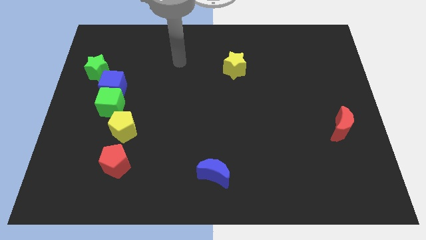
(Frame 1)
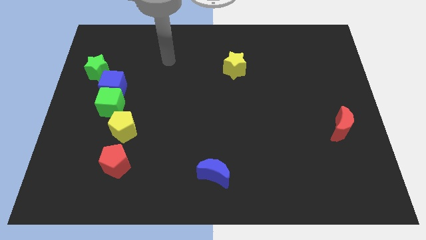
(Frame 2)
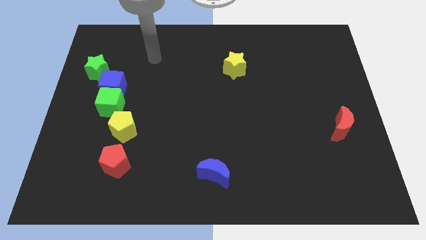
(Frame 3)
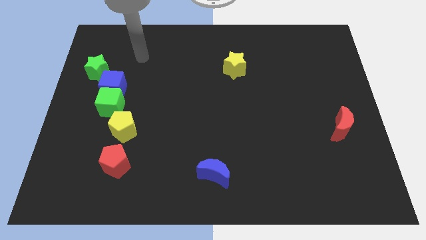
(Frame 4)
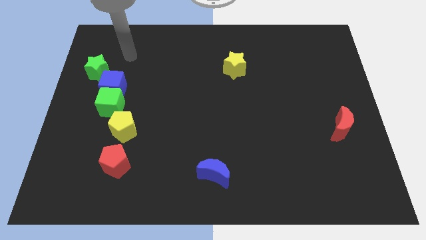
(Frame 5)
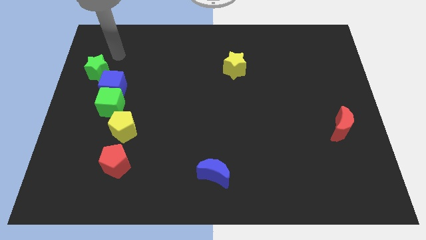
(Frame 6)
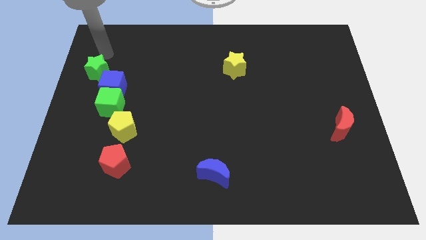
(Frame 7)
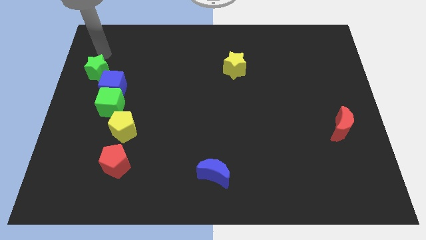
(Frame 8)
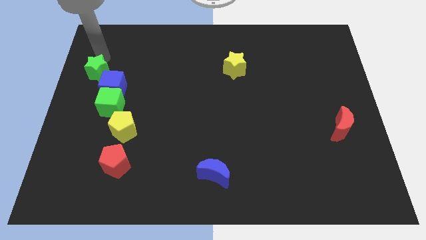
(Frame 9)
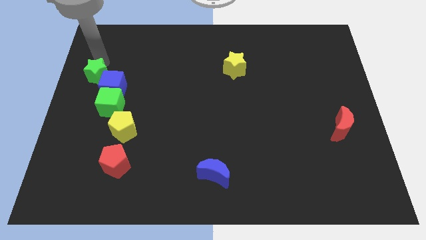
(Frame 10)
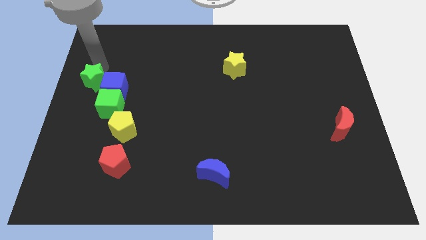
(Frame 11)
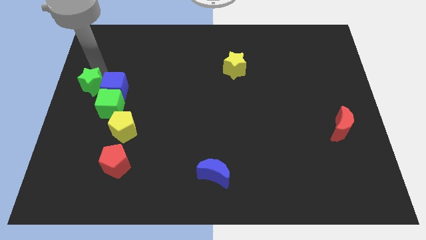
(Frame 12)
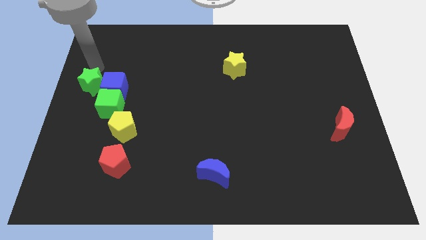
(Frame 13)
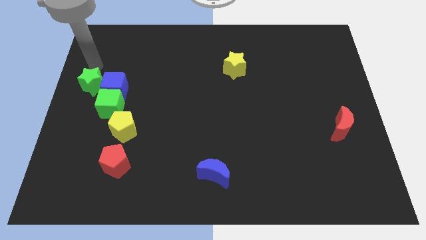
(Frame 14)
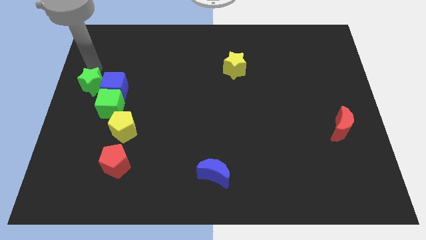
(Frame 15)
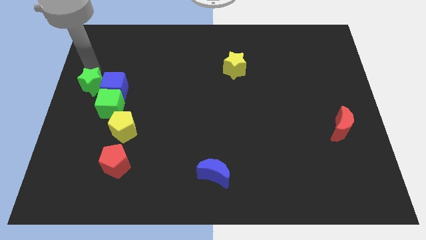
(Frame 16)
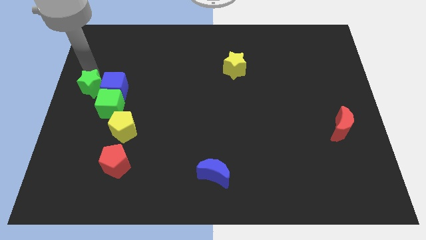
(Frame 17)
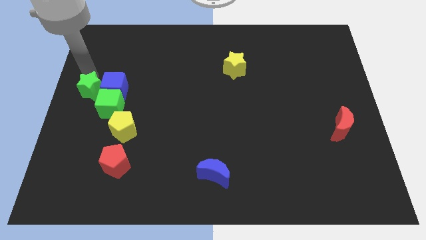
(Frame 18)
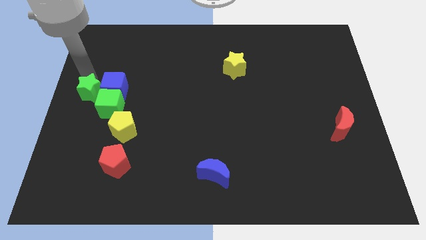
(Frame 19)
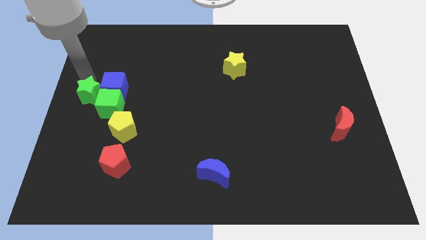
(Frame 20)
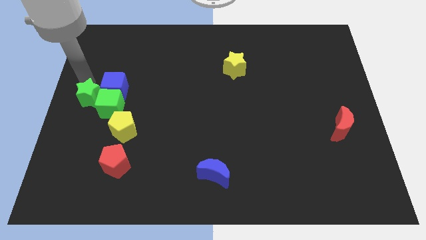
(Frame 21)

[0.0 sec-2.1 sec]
slide the green star close to the green cube

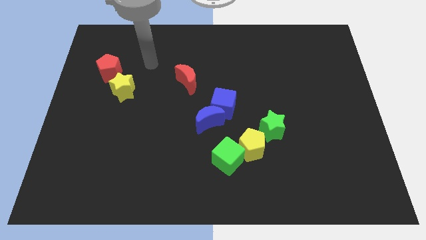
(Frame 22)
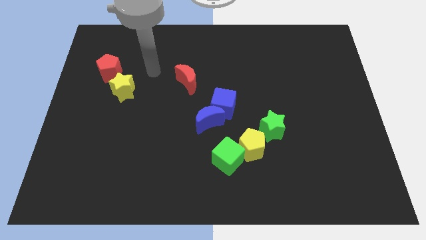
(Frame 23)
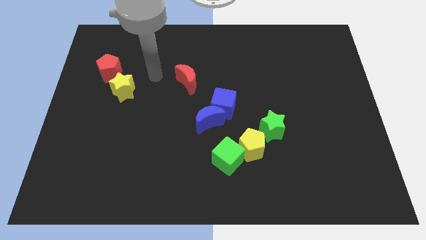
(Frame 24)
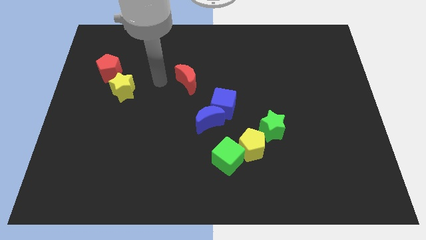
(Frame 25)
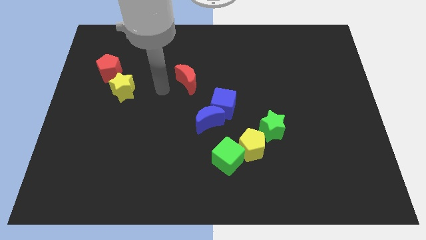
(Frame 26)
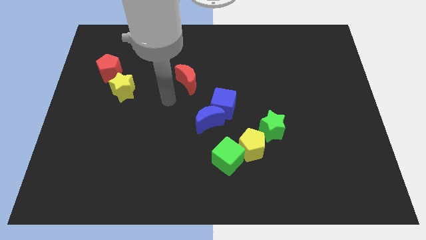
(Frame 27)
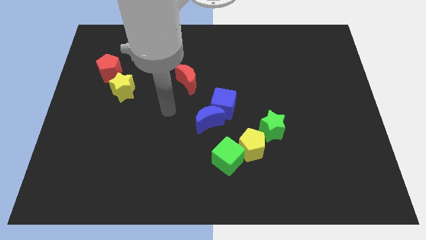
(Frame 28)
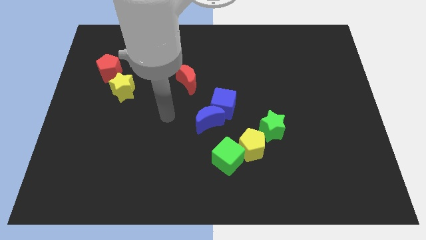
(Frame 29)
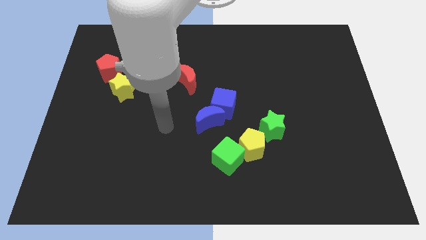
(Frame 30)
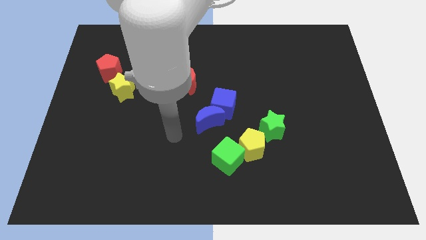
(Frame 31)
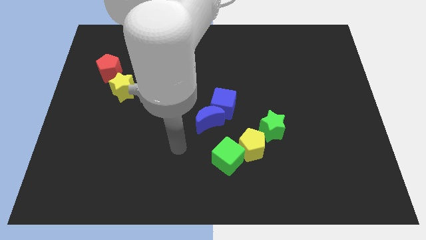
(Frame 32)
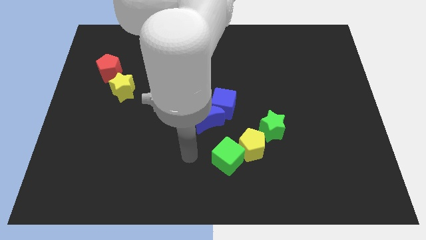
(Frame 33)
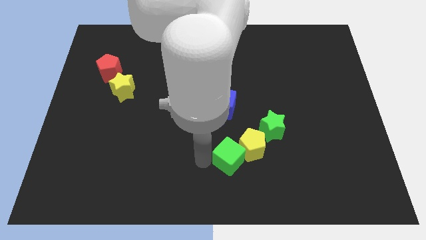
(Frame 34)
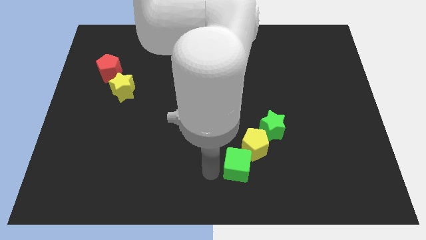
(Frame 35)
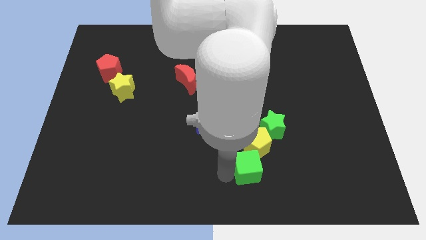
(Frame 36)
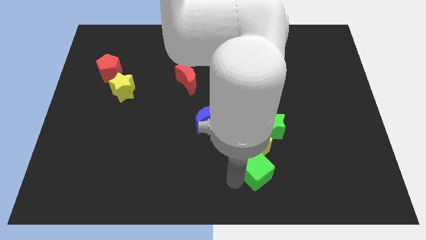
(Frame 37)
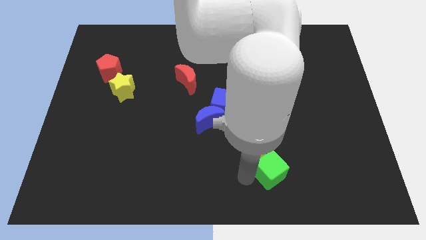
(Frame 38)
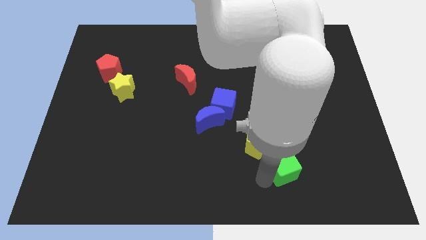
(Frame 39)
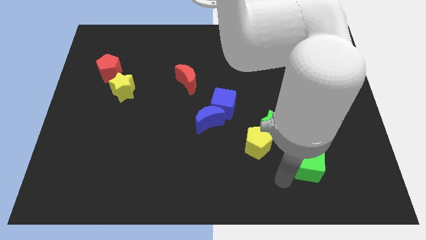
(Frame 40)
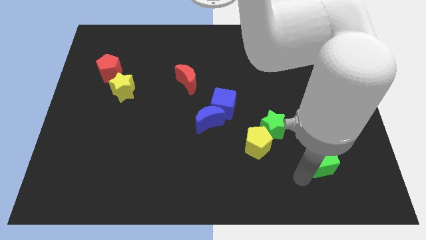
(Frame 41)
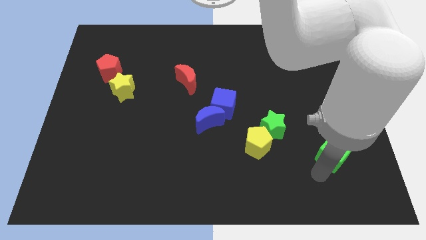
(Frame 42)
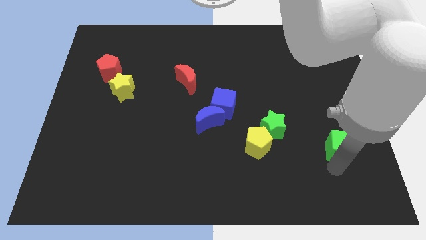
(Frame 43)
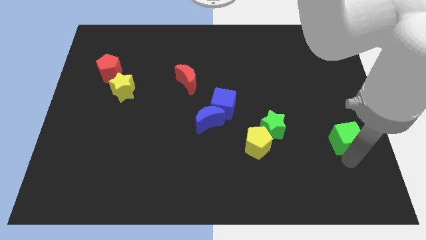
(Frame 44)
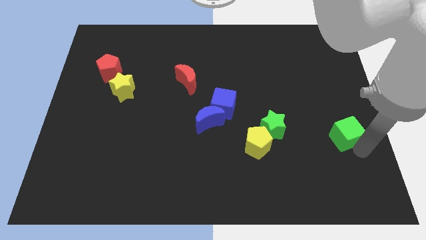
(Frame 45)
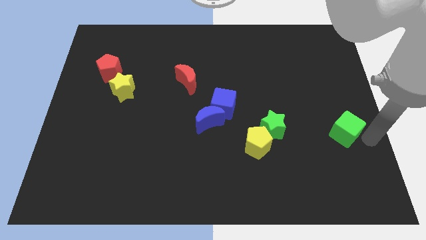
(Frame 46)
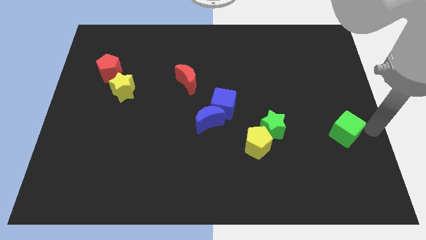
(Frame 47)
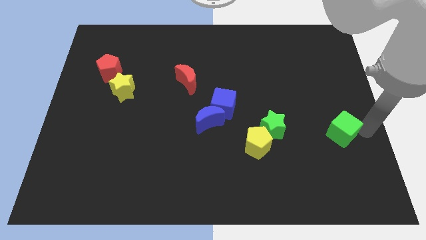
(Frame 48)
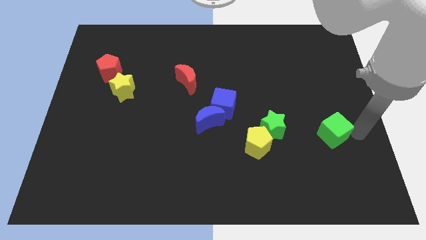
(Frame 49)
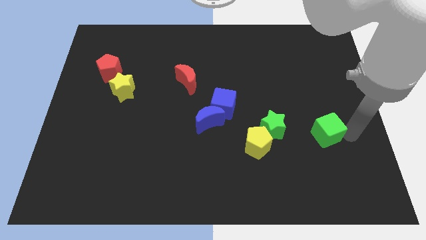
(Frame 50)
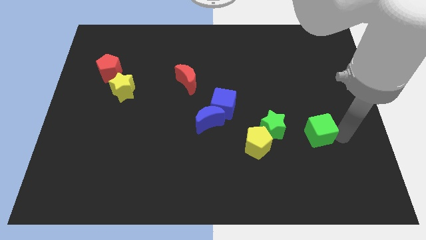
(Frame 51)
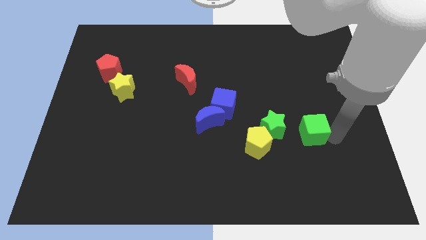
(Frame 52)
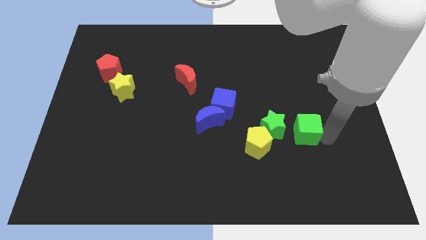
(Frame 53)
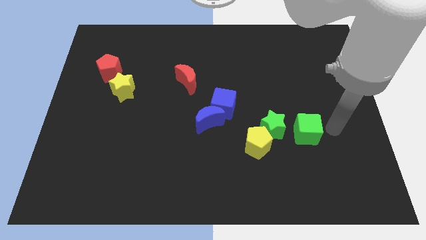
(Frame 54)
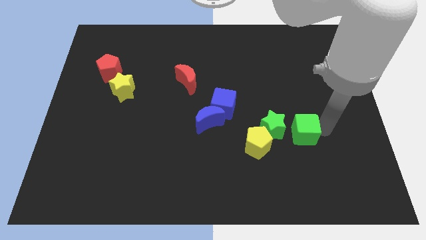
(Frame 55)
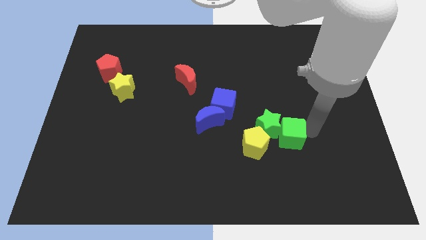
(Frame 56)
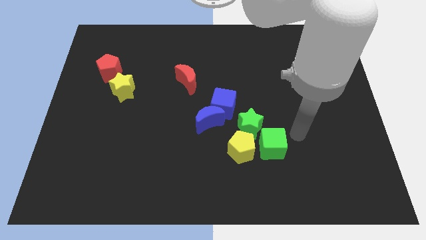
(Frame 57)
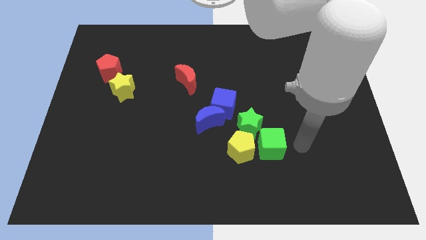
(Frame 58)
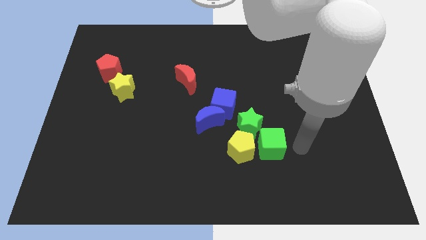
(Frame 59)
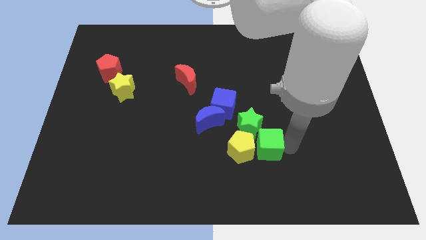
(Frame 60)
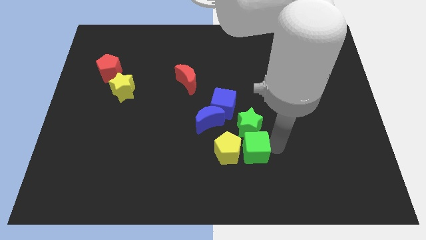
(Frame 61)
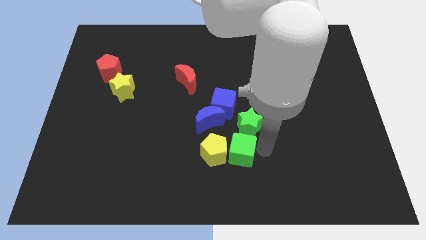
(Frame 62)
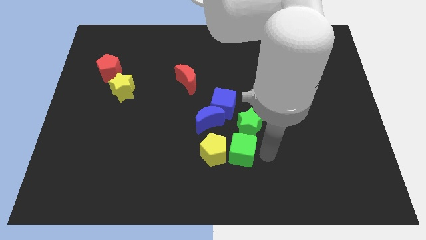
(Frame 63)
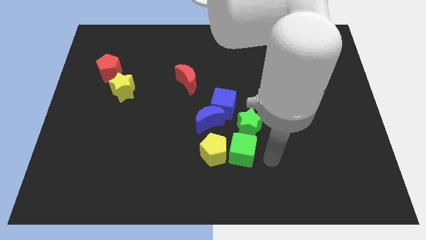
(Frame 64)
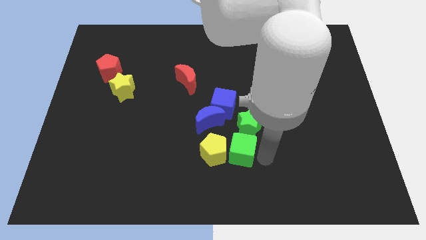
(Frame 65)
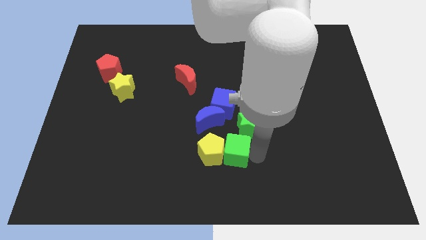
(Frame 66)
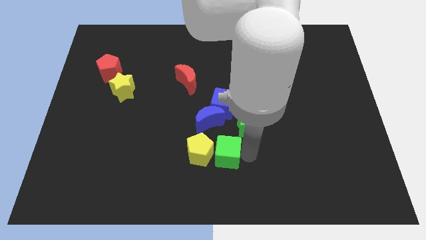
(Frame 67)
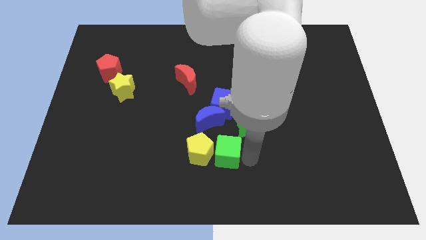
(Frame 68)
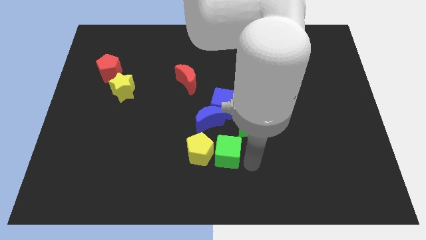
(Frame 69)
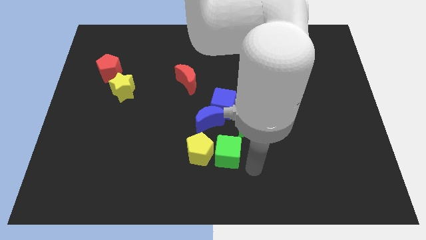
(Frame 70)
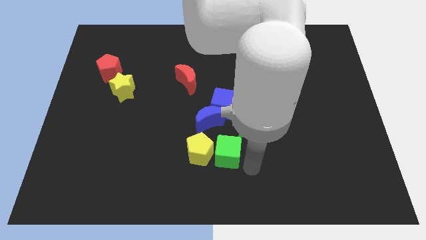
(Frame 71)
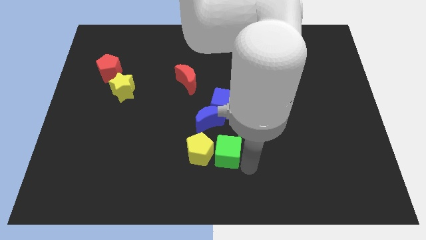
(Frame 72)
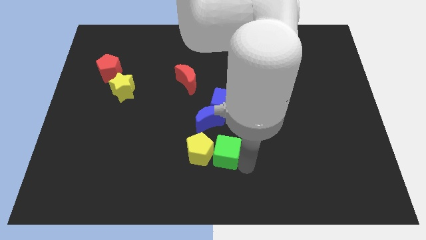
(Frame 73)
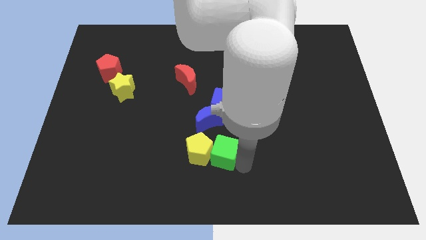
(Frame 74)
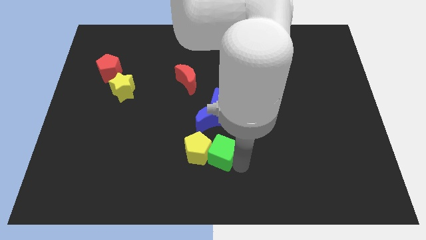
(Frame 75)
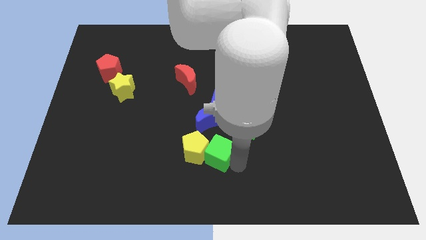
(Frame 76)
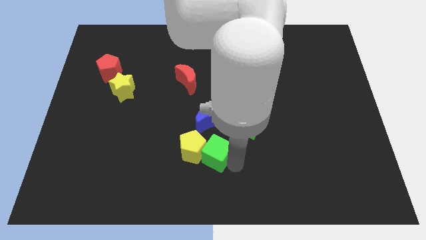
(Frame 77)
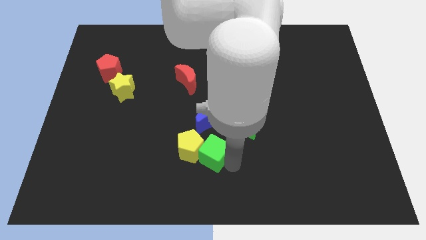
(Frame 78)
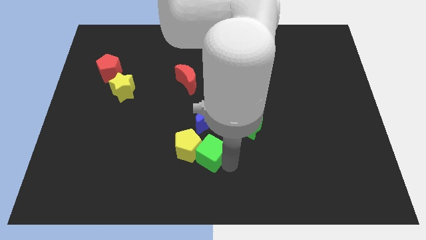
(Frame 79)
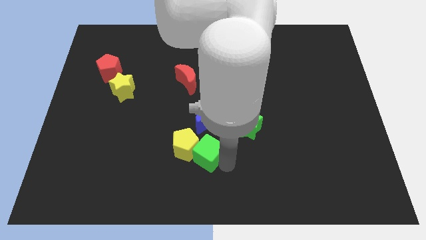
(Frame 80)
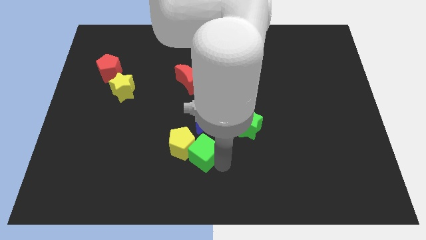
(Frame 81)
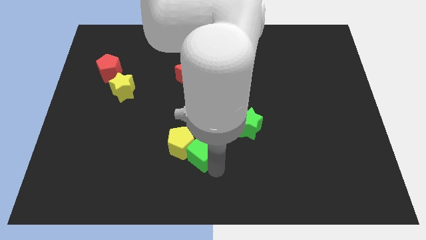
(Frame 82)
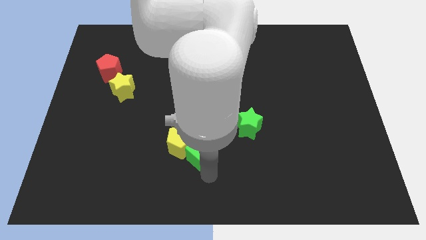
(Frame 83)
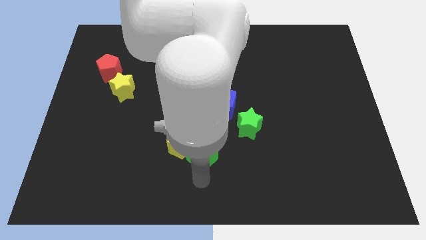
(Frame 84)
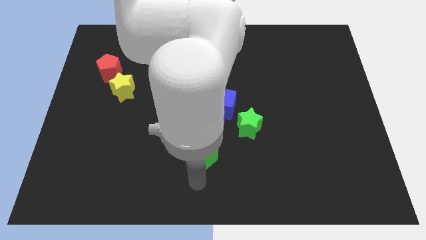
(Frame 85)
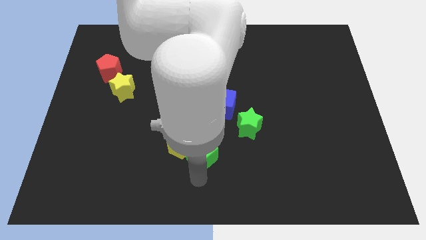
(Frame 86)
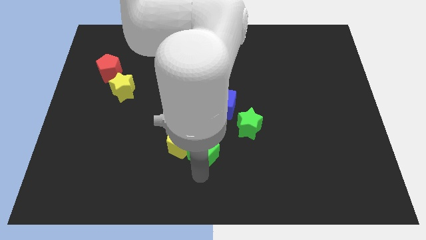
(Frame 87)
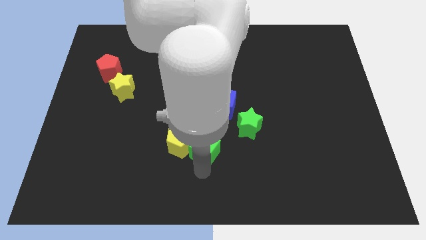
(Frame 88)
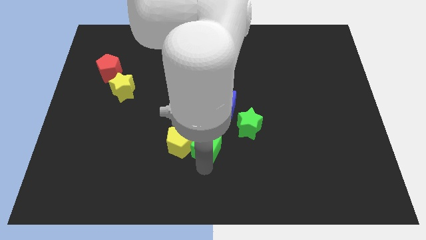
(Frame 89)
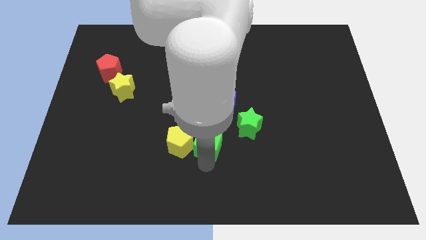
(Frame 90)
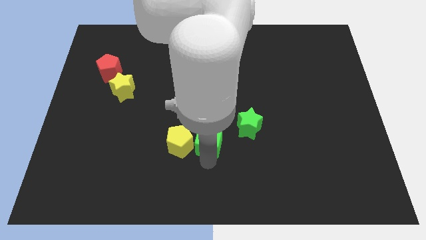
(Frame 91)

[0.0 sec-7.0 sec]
push the green cube towards the blue moon
